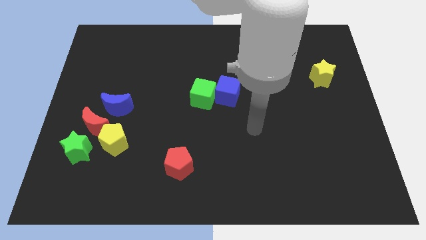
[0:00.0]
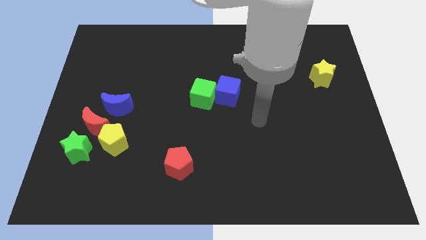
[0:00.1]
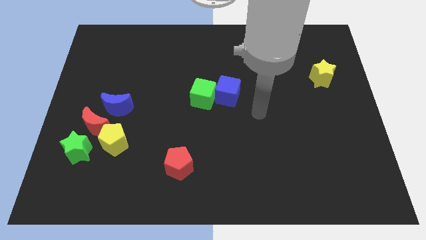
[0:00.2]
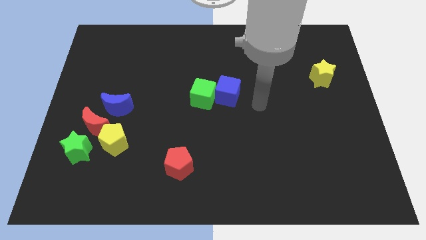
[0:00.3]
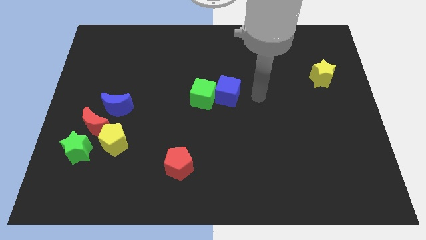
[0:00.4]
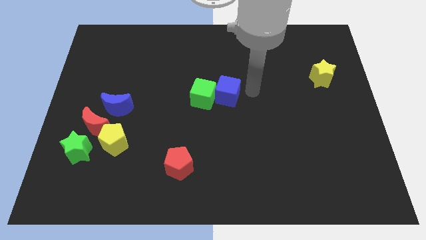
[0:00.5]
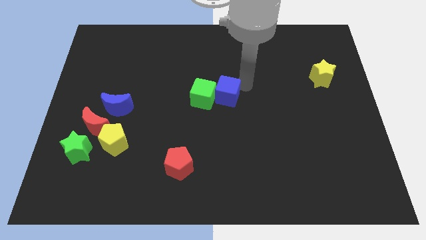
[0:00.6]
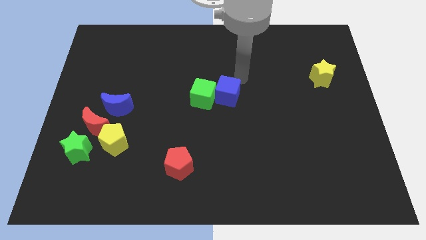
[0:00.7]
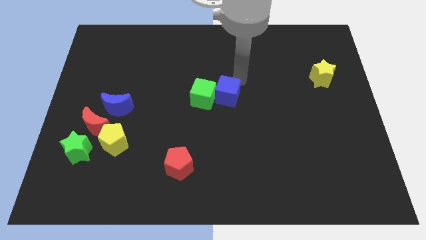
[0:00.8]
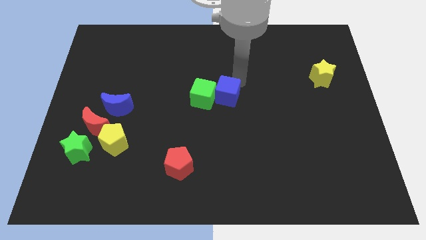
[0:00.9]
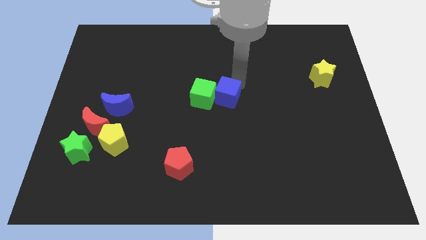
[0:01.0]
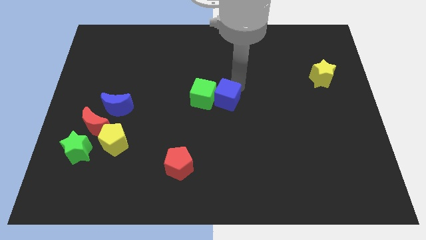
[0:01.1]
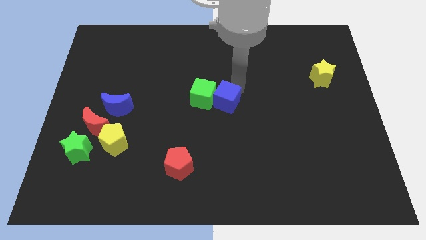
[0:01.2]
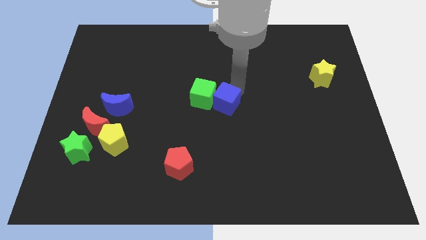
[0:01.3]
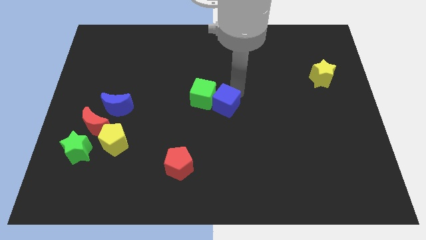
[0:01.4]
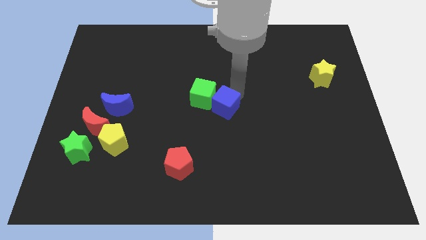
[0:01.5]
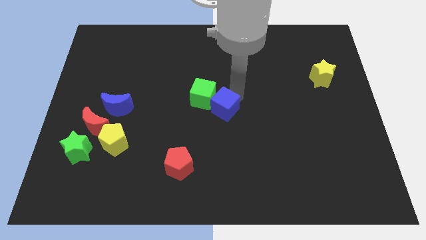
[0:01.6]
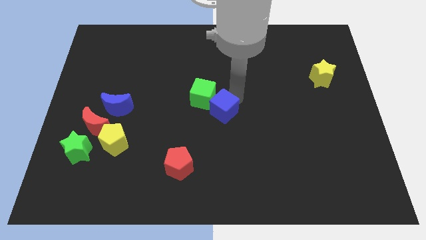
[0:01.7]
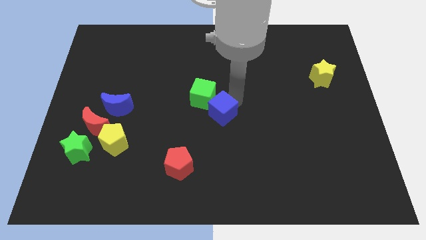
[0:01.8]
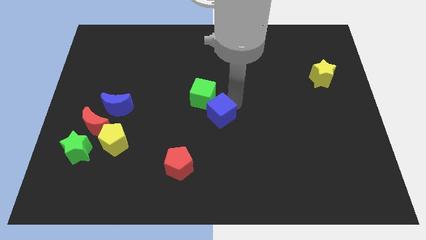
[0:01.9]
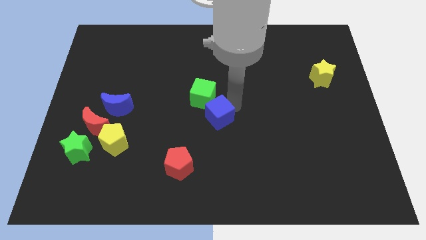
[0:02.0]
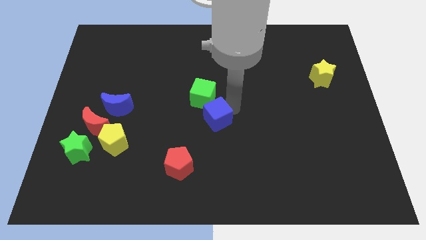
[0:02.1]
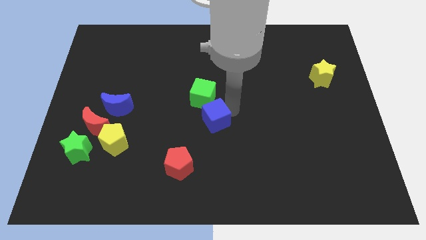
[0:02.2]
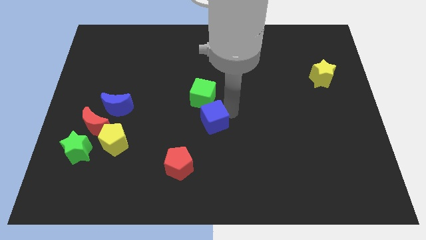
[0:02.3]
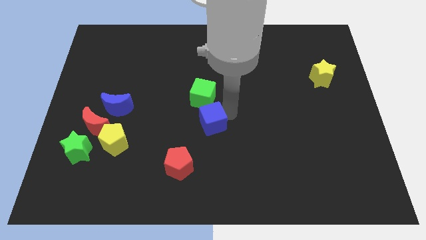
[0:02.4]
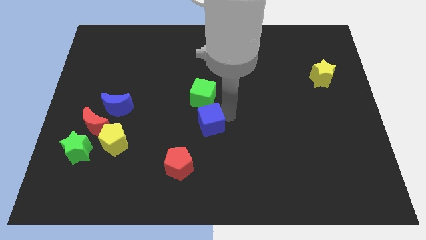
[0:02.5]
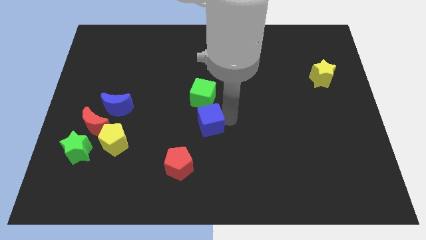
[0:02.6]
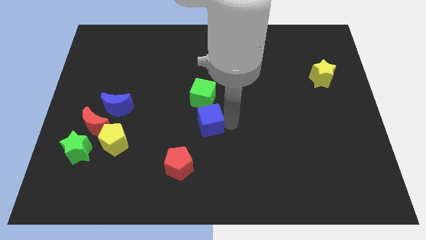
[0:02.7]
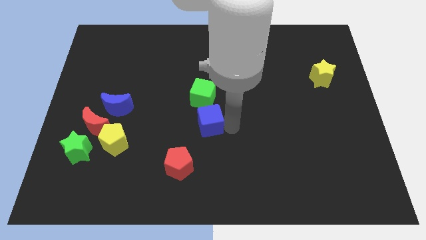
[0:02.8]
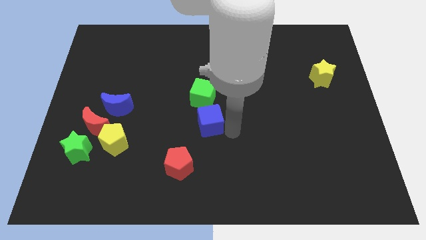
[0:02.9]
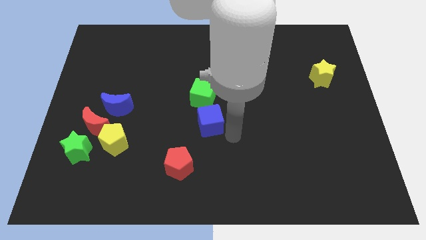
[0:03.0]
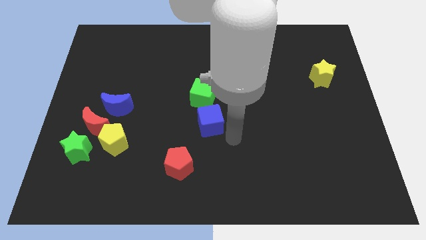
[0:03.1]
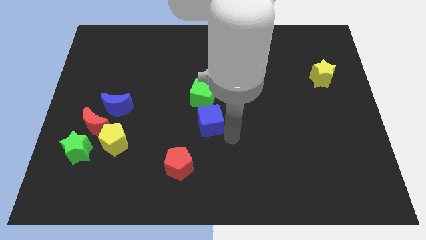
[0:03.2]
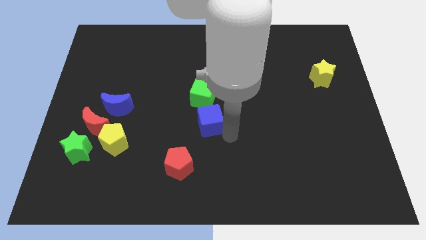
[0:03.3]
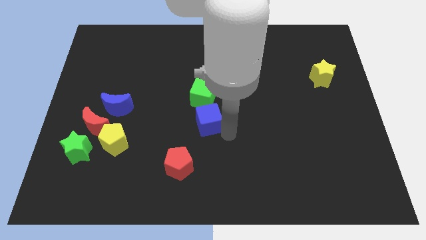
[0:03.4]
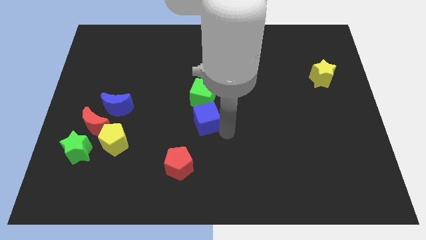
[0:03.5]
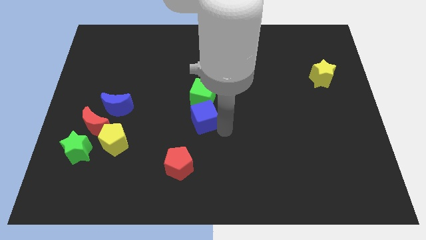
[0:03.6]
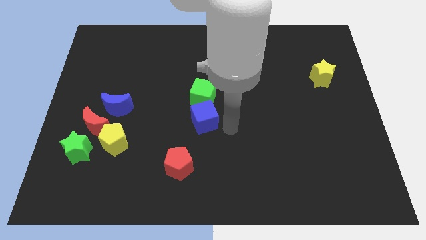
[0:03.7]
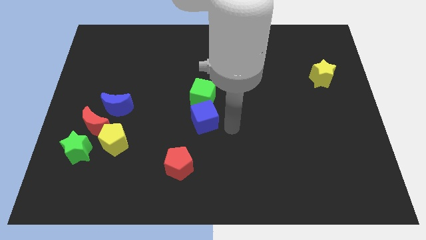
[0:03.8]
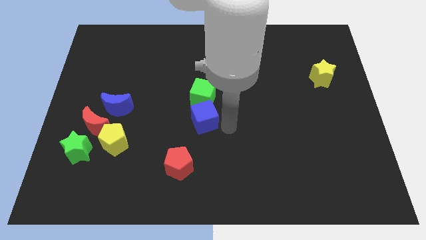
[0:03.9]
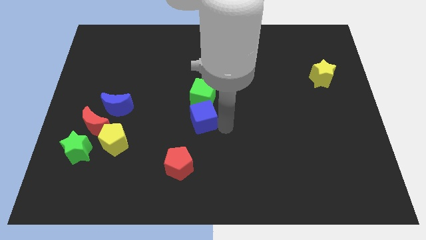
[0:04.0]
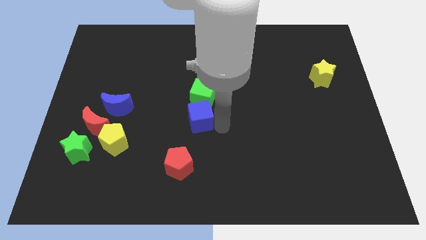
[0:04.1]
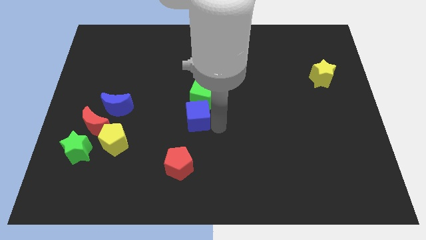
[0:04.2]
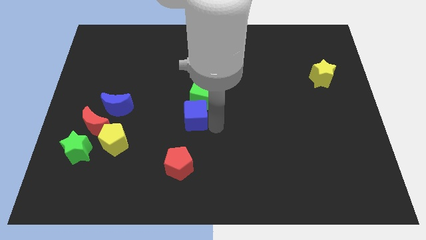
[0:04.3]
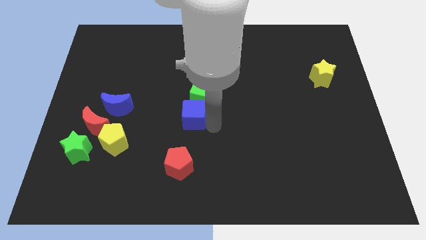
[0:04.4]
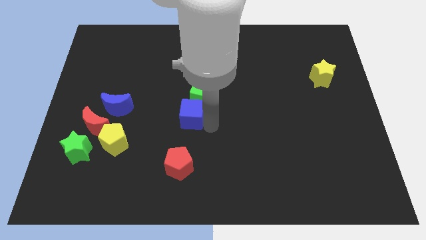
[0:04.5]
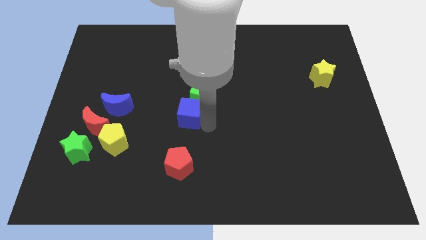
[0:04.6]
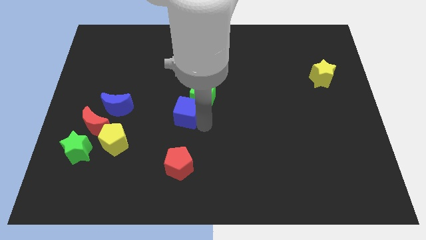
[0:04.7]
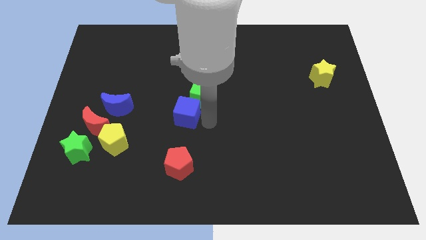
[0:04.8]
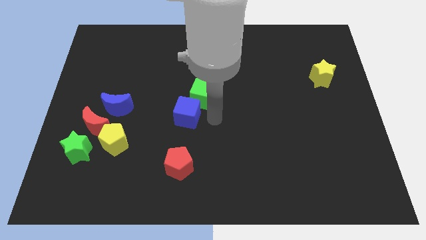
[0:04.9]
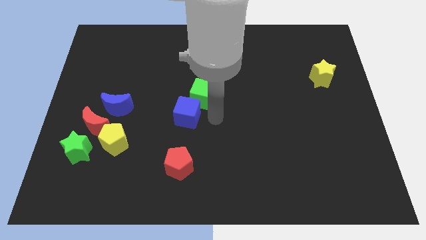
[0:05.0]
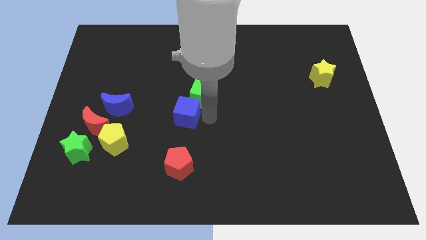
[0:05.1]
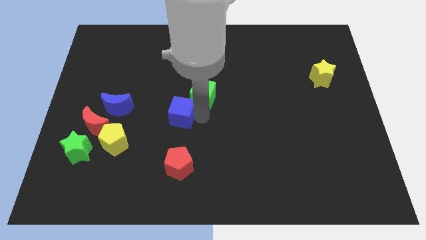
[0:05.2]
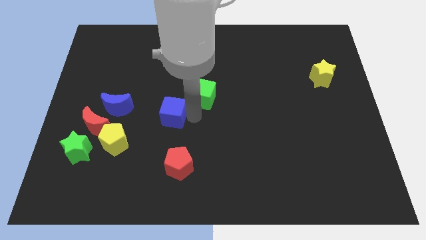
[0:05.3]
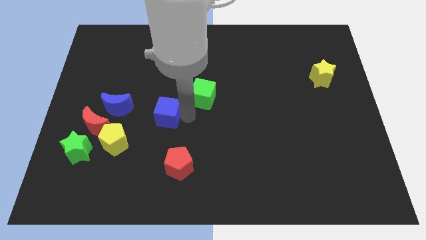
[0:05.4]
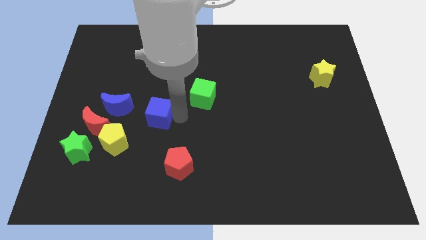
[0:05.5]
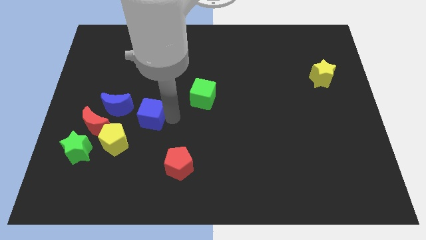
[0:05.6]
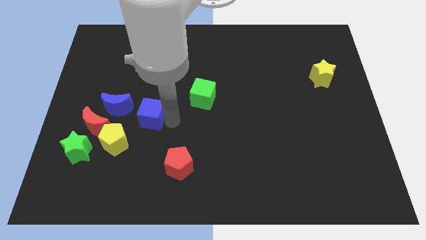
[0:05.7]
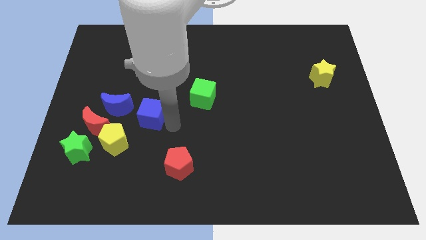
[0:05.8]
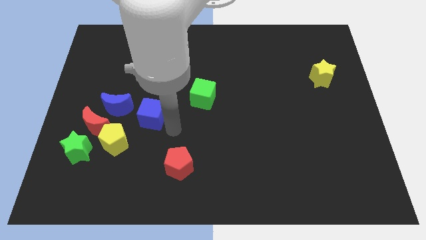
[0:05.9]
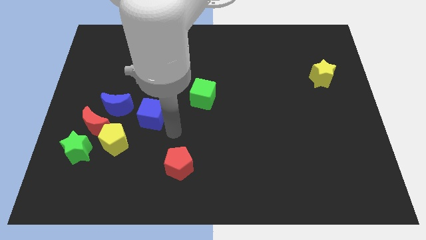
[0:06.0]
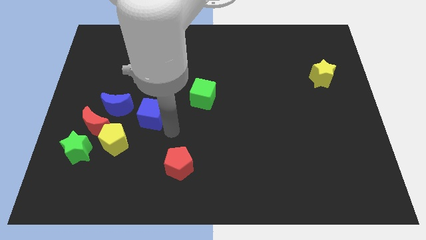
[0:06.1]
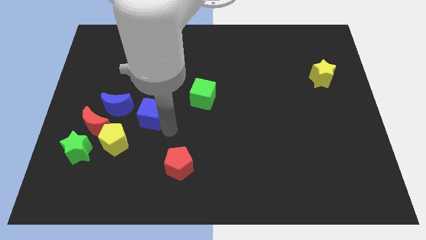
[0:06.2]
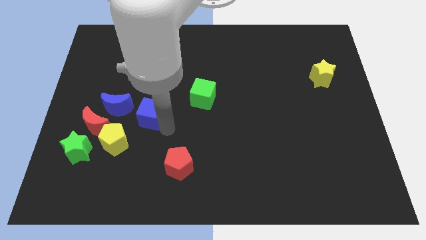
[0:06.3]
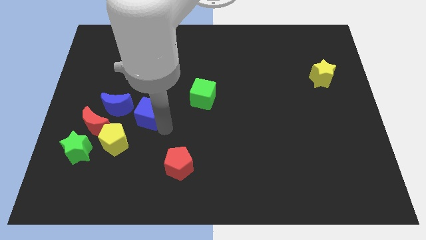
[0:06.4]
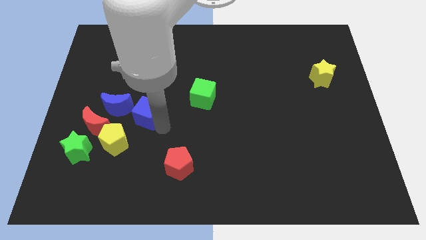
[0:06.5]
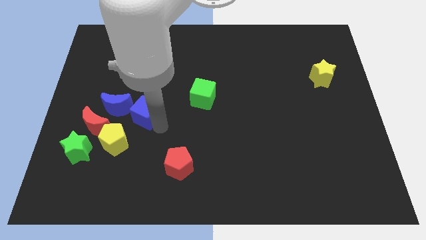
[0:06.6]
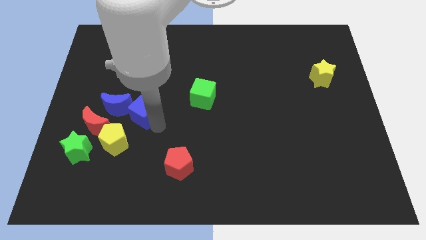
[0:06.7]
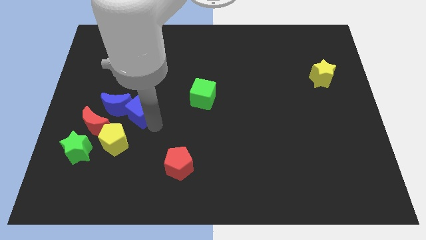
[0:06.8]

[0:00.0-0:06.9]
slide the blue cube towards the blue moon
